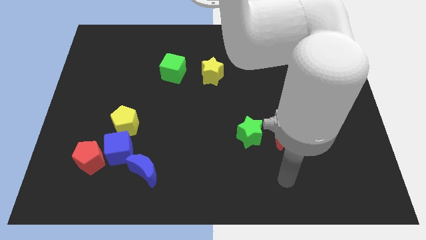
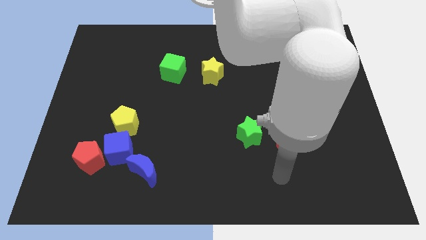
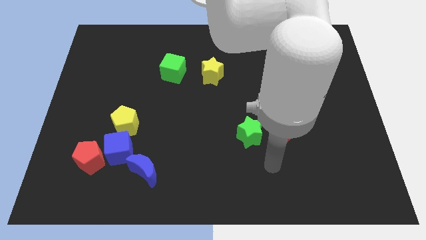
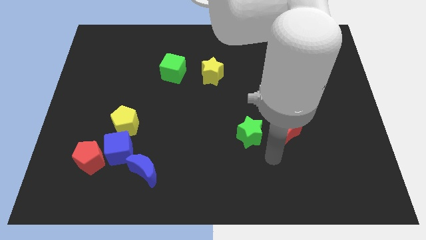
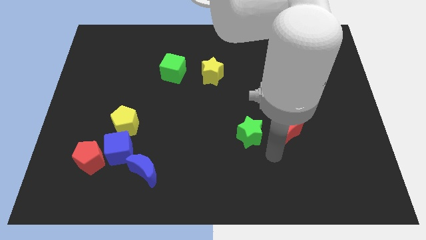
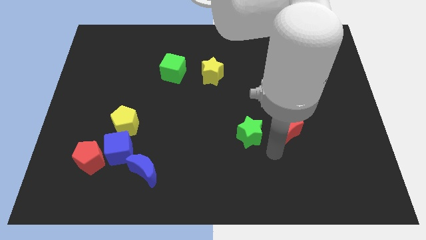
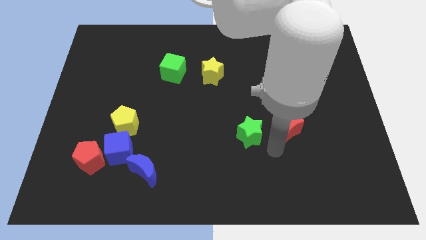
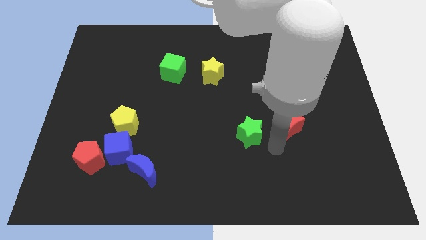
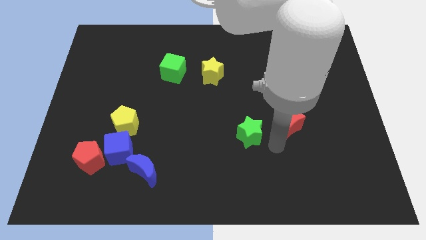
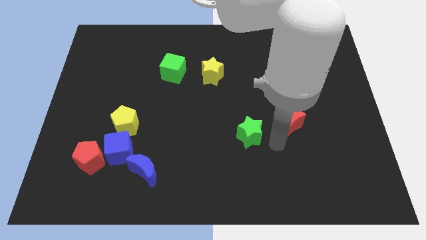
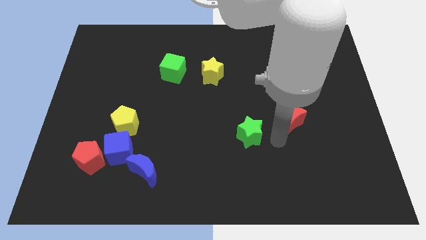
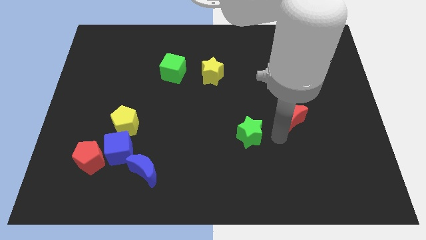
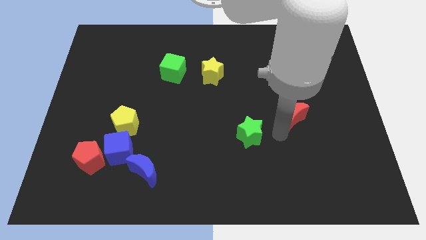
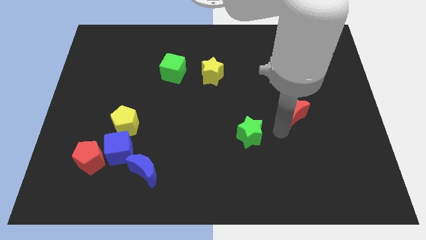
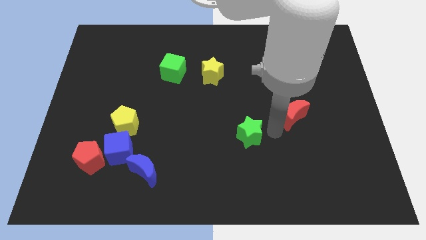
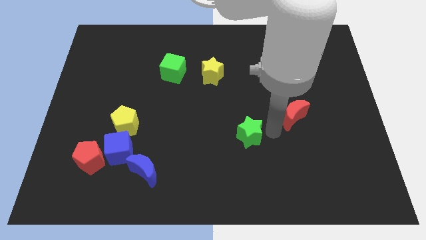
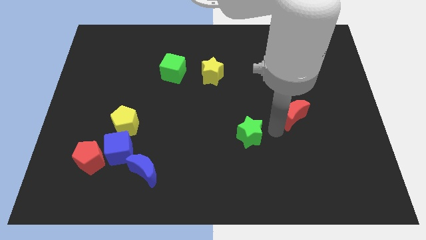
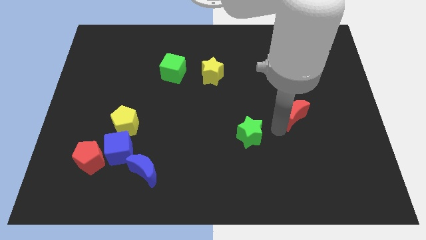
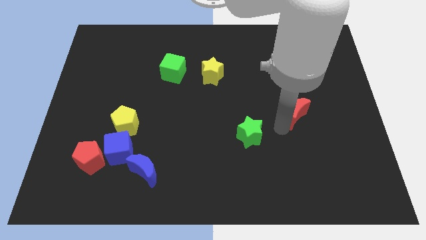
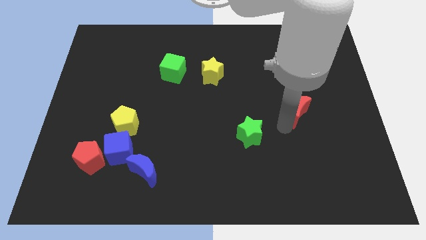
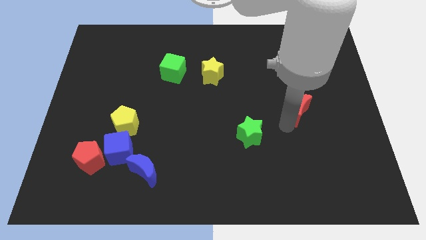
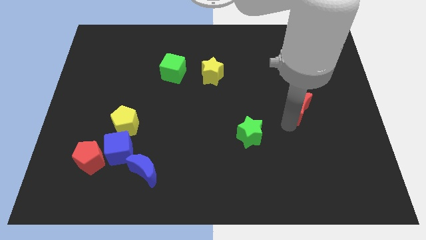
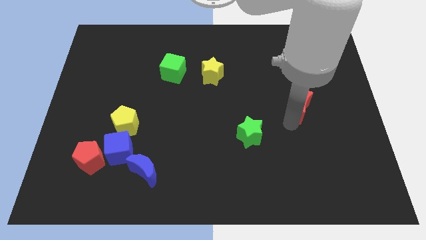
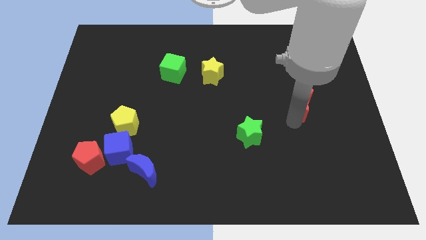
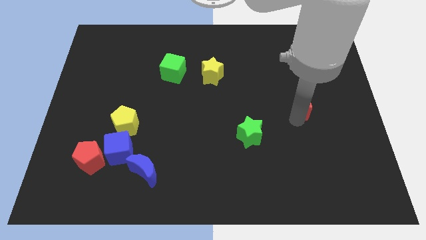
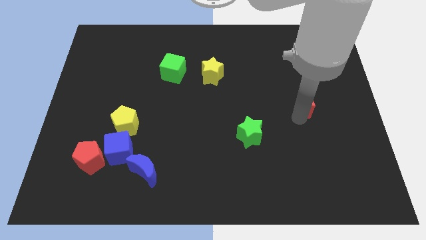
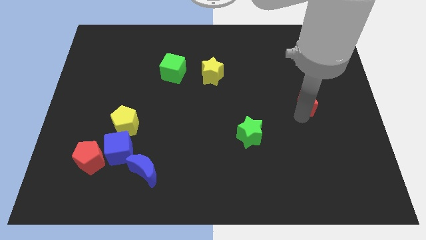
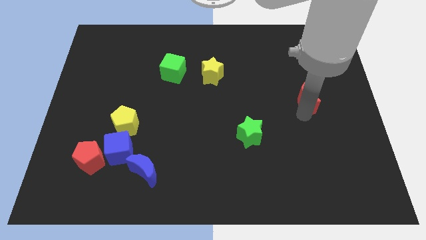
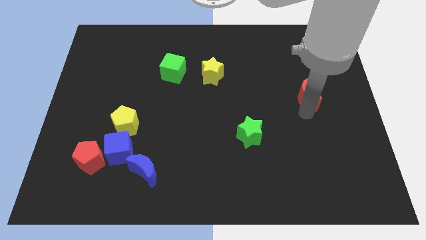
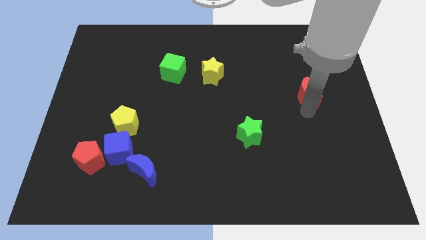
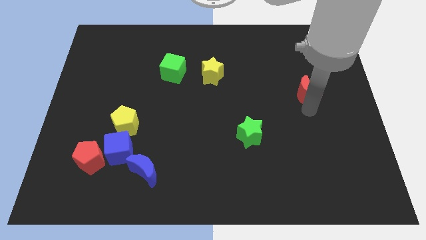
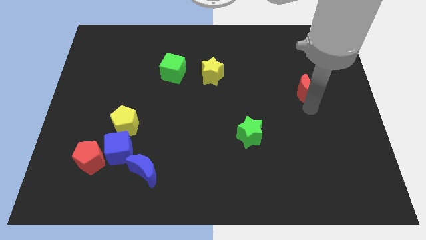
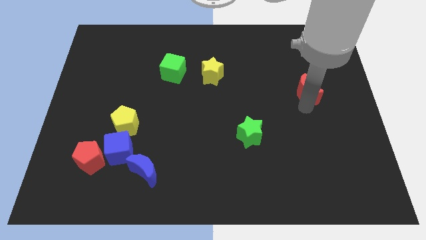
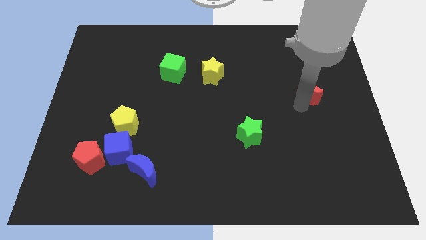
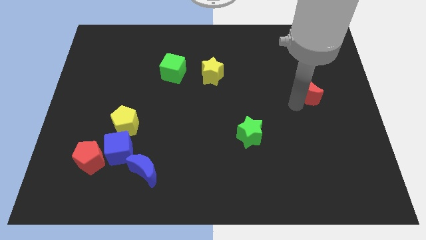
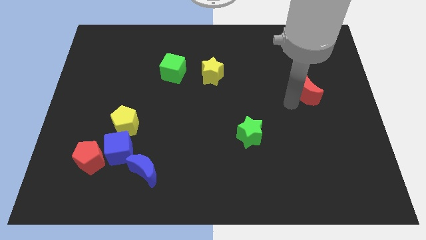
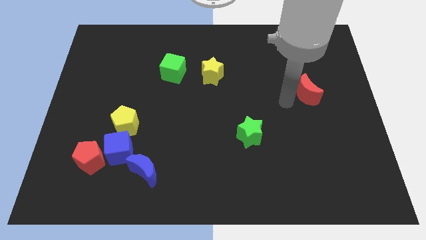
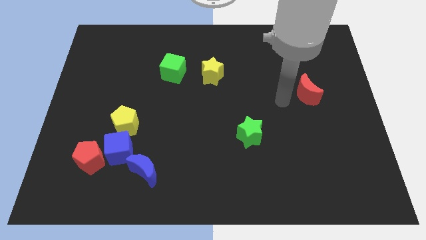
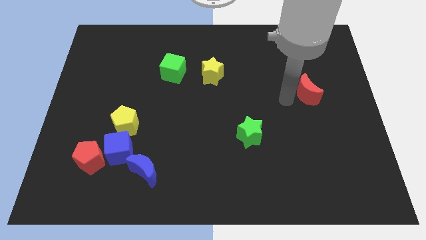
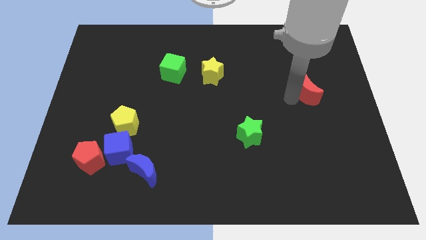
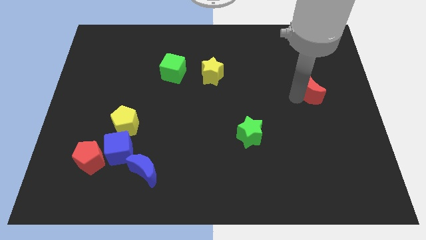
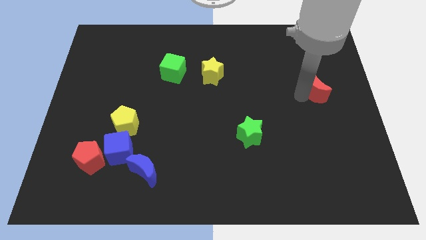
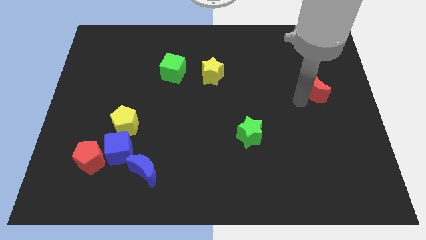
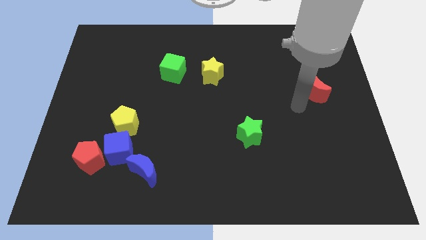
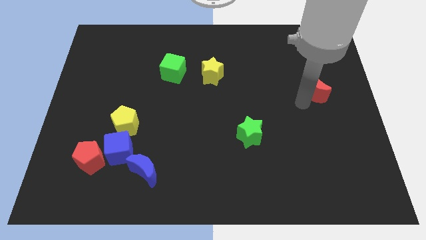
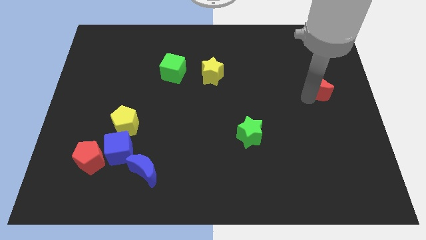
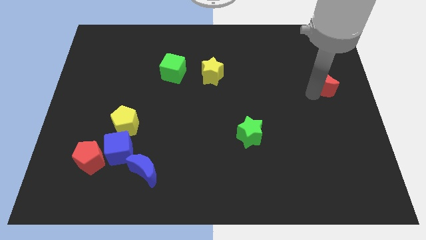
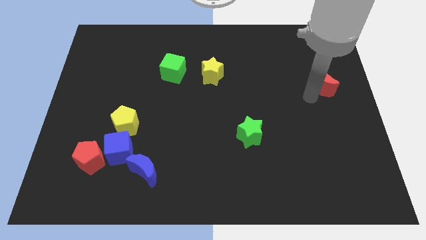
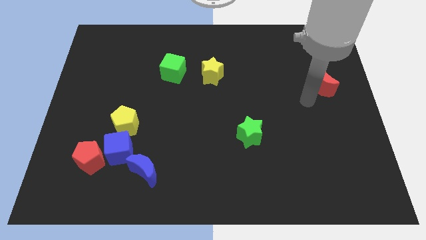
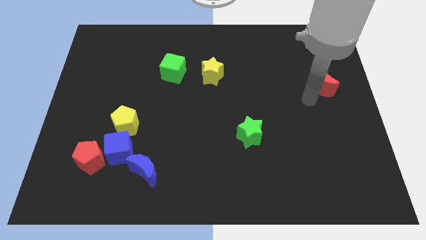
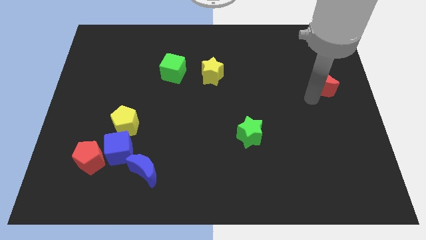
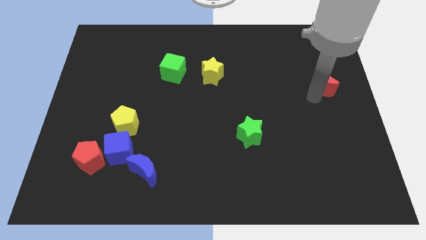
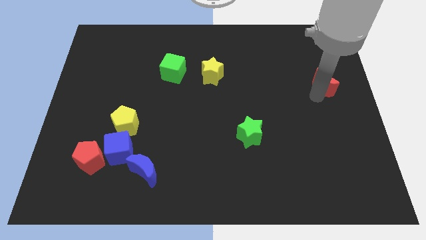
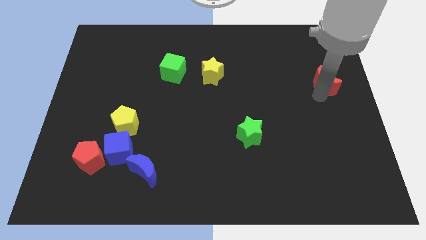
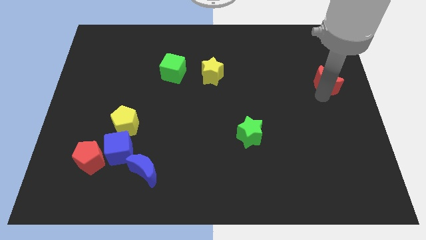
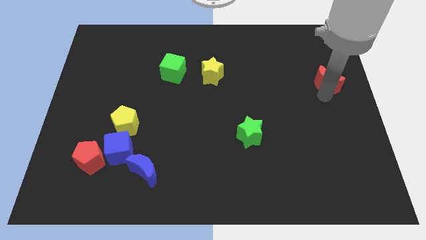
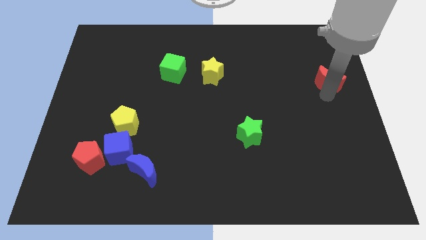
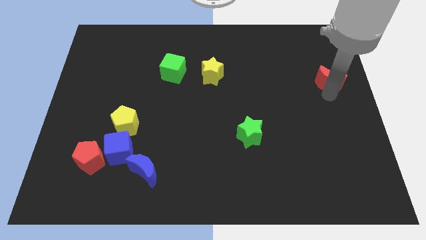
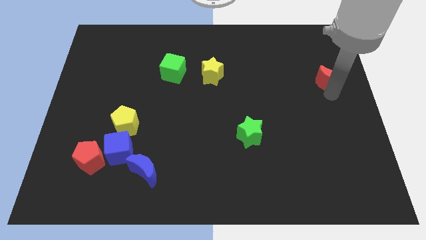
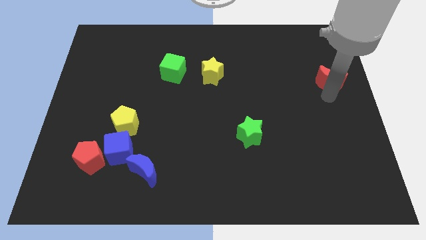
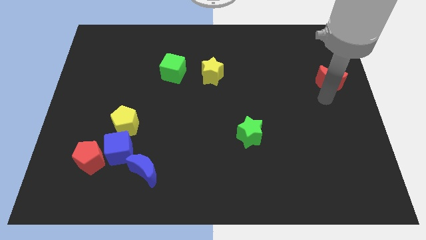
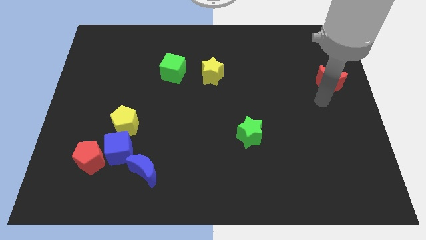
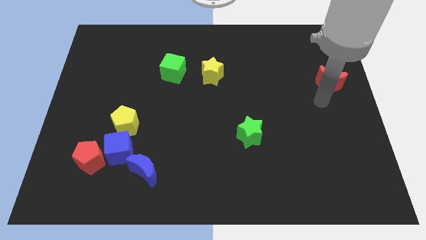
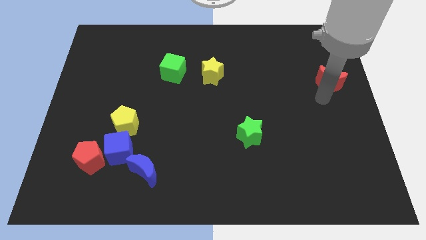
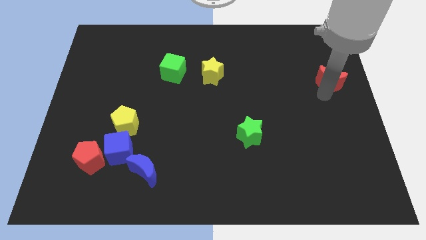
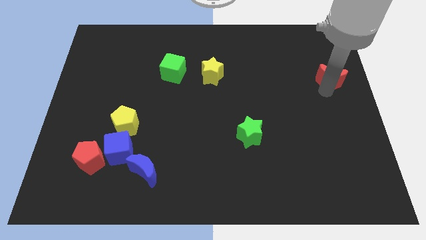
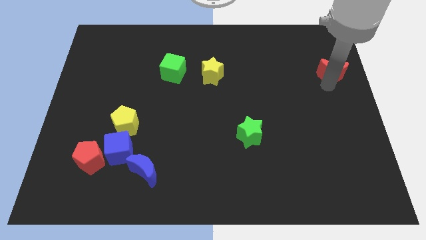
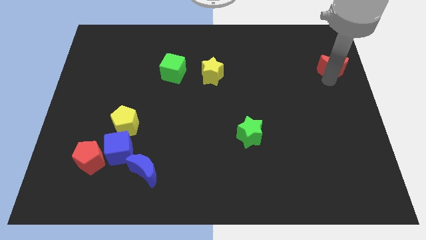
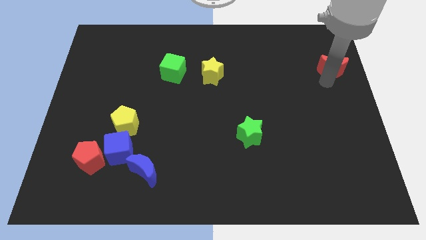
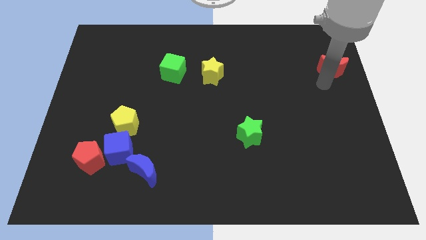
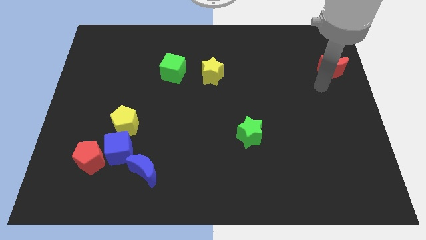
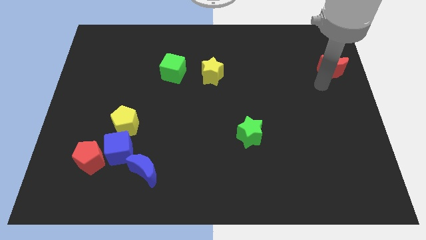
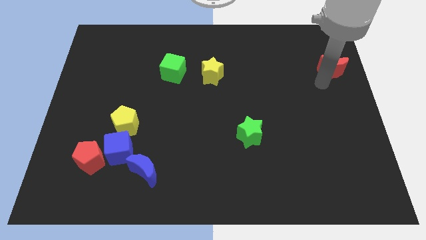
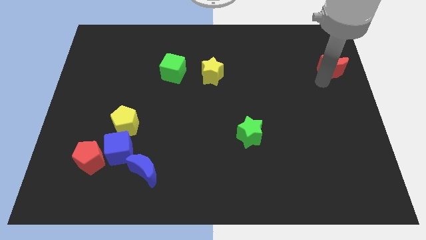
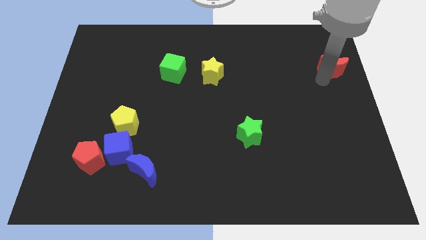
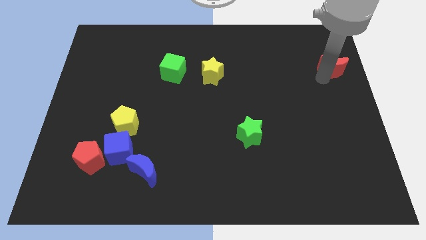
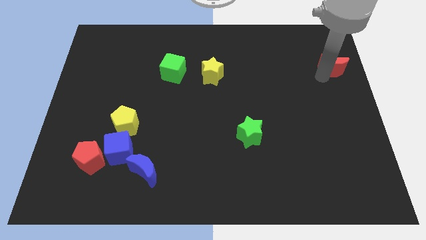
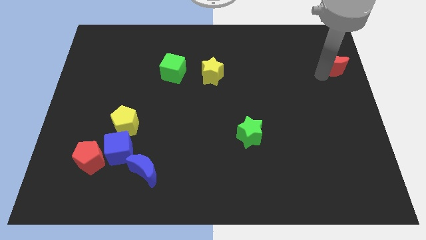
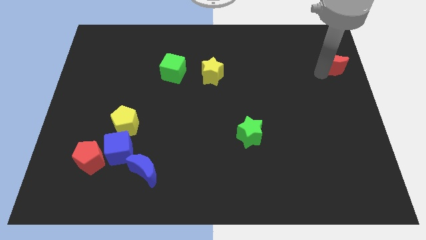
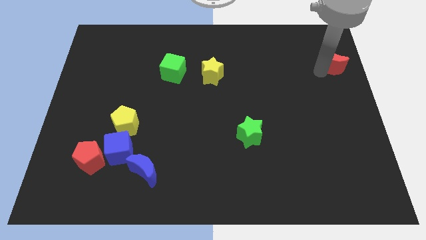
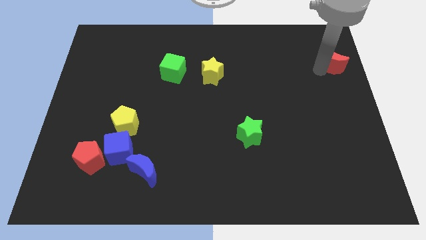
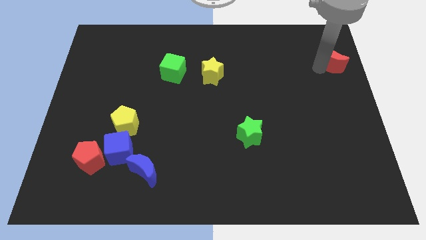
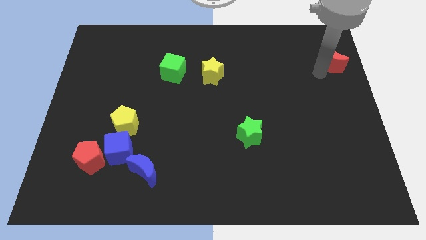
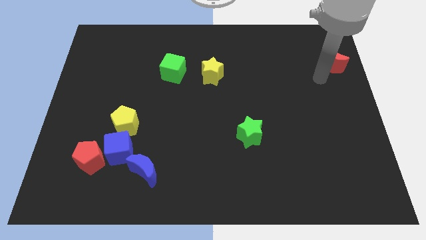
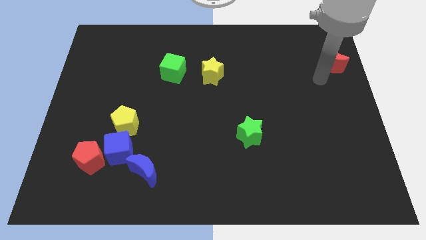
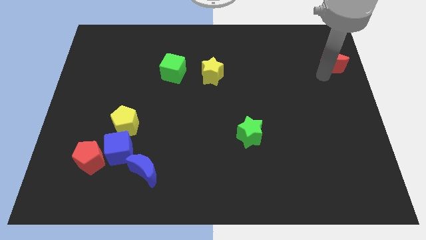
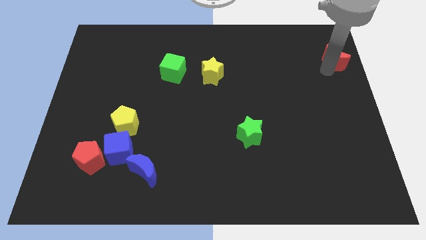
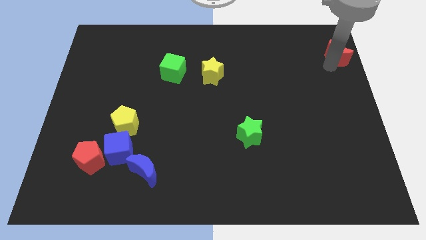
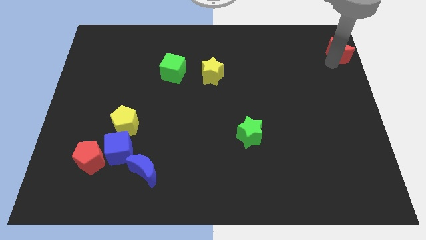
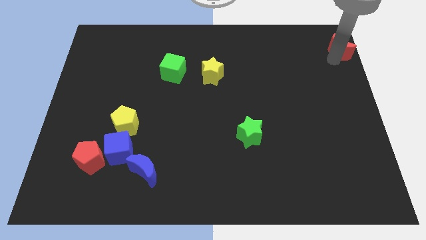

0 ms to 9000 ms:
slide the red moon to the top right corner
